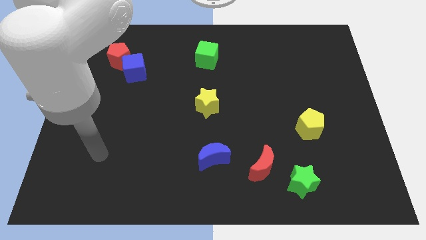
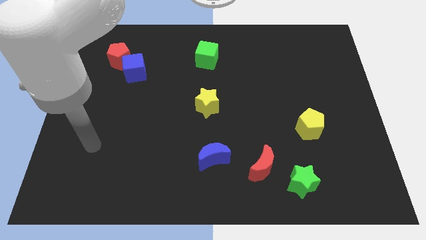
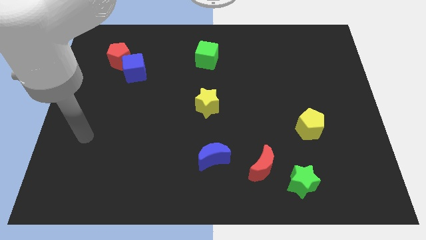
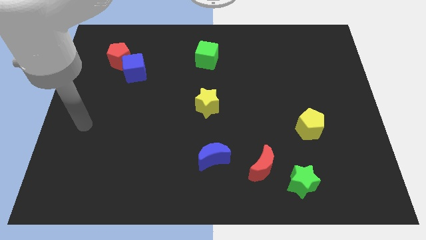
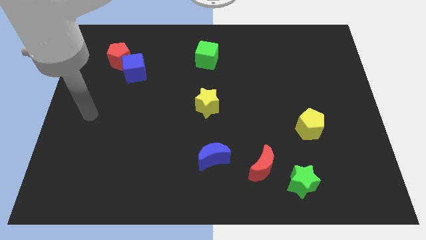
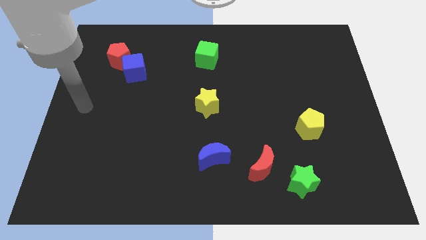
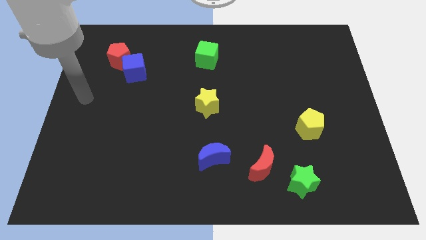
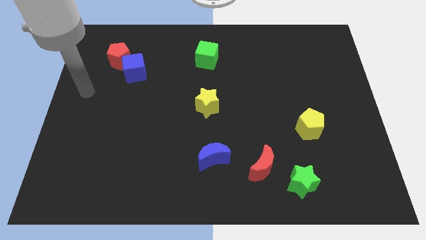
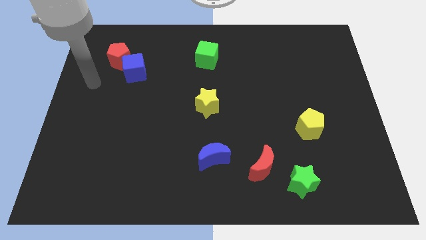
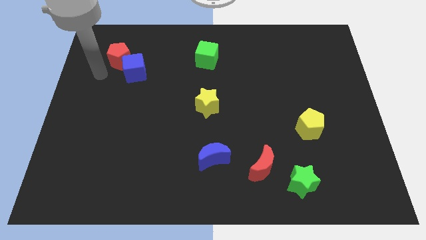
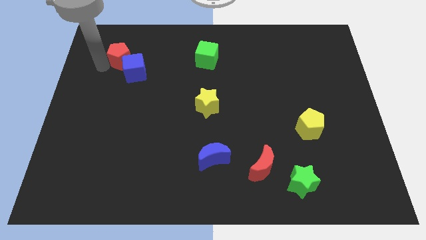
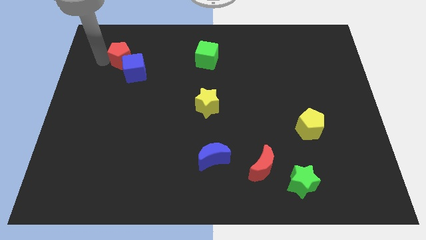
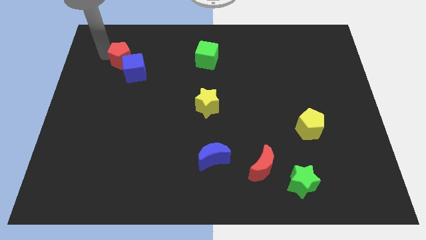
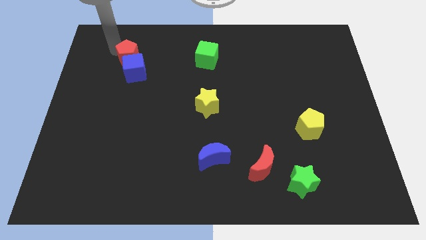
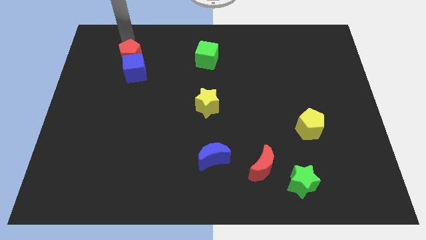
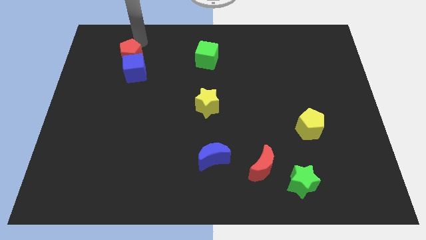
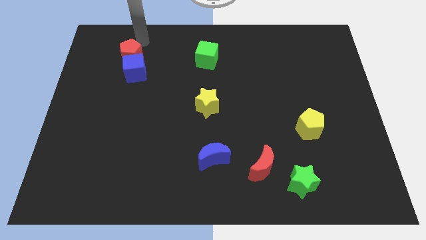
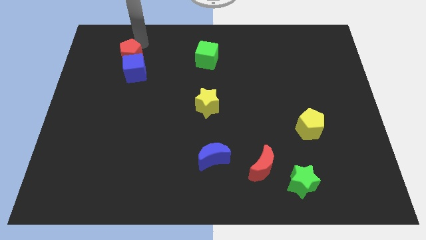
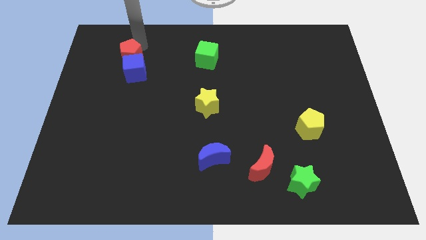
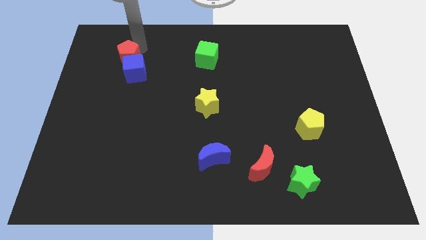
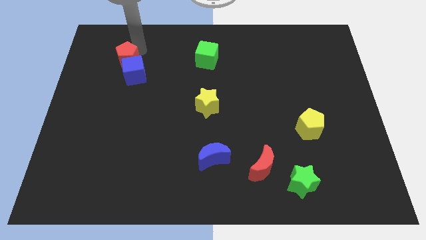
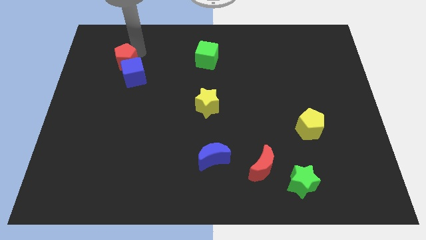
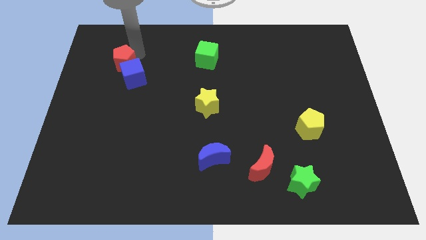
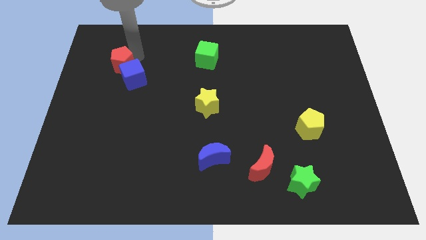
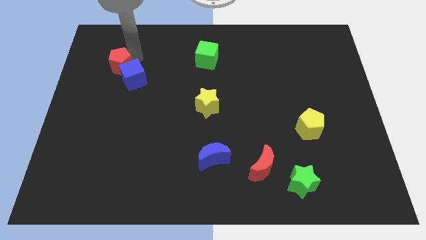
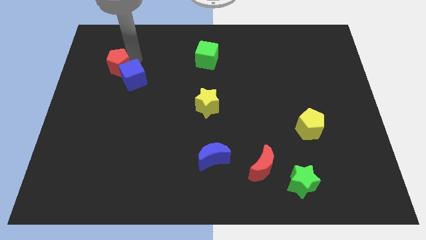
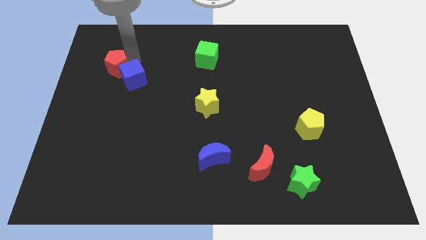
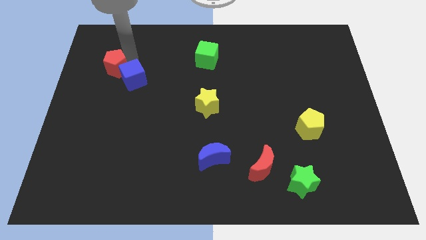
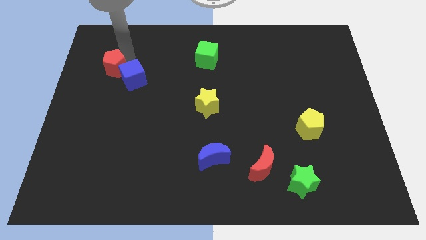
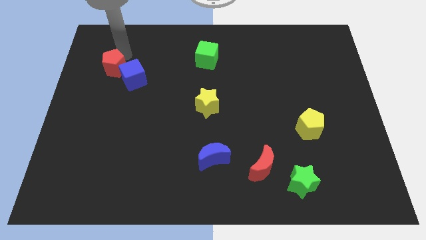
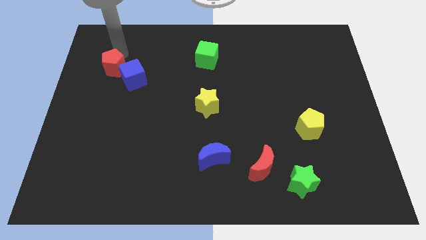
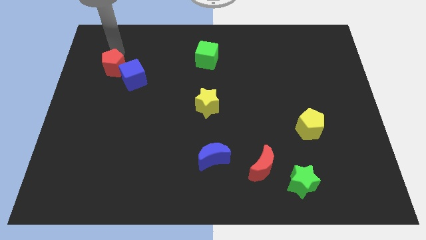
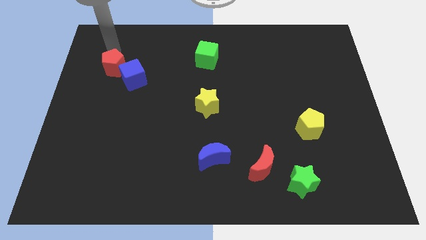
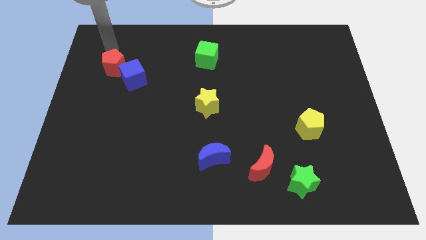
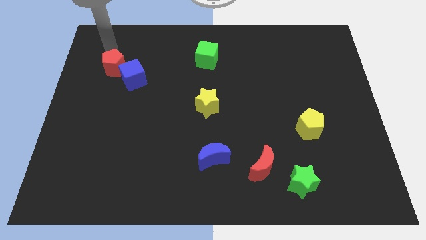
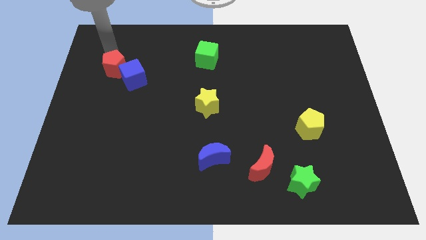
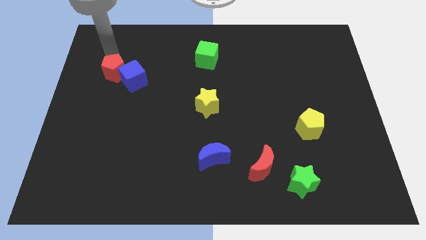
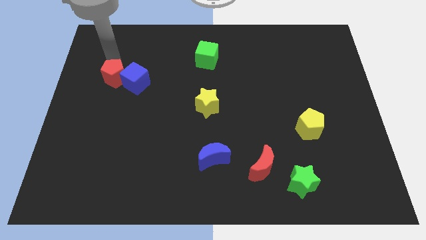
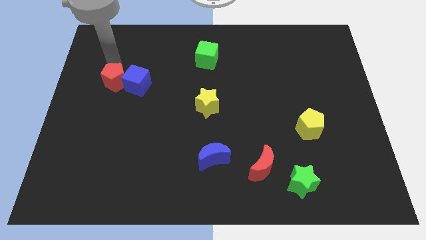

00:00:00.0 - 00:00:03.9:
slide the red pentagon a bit down

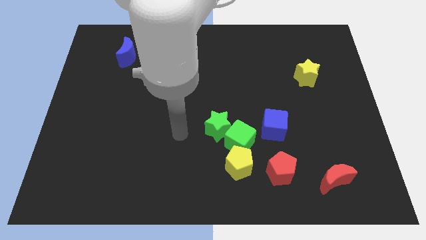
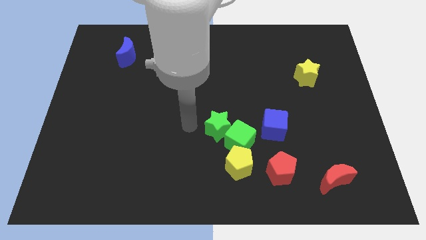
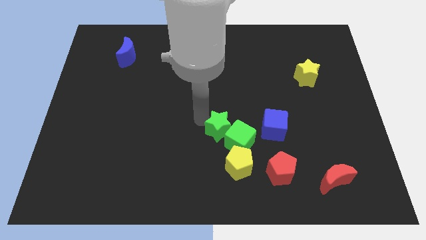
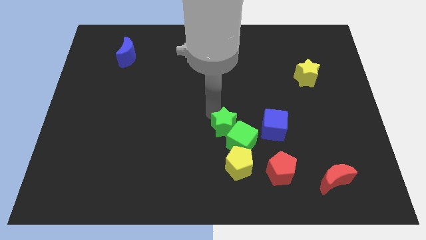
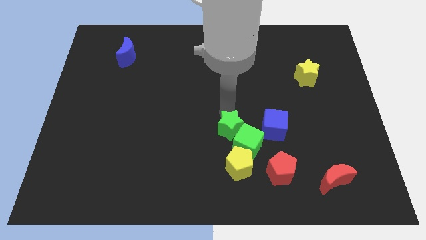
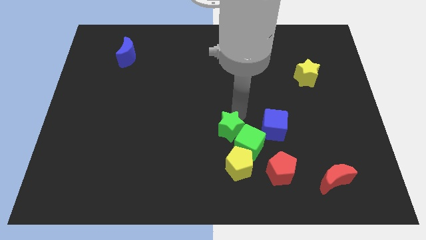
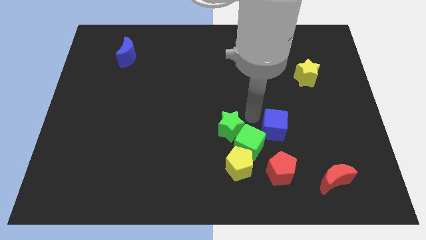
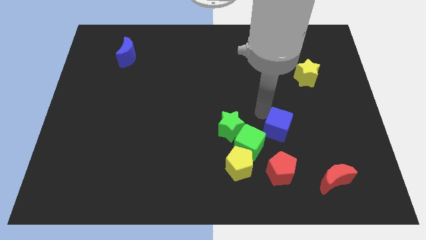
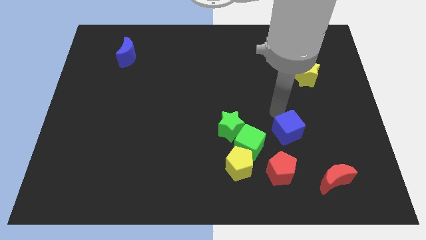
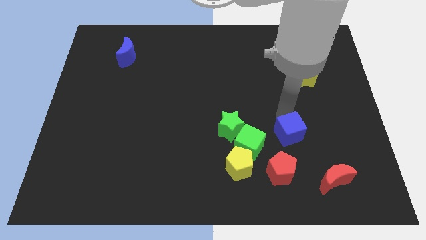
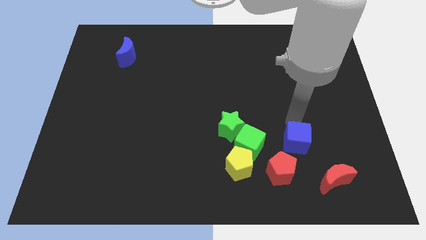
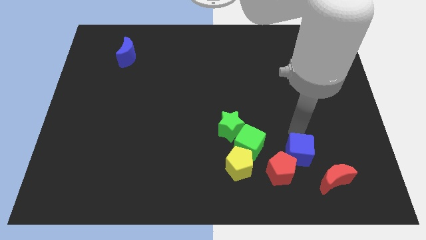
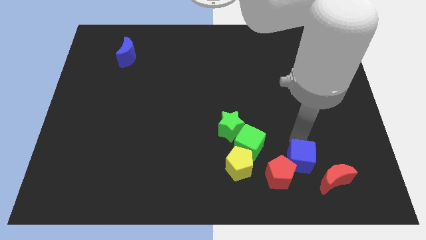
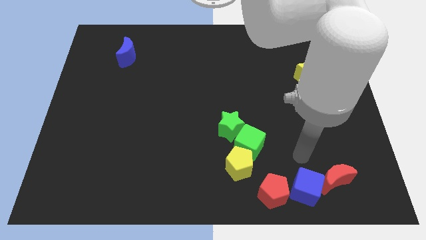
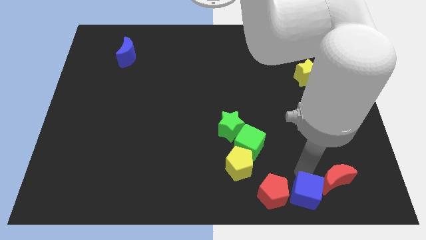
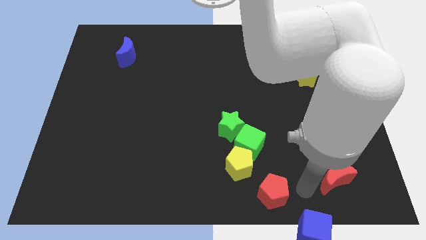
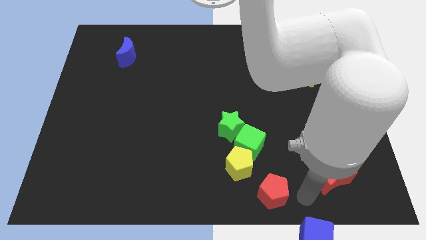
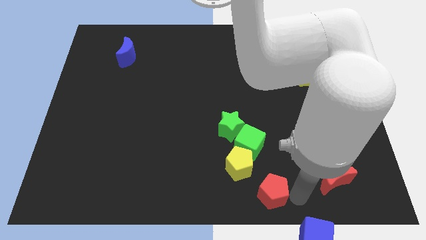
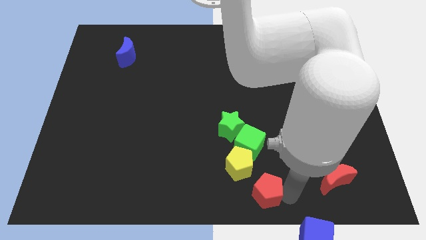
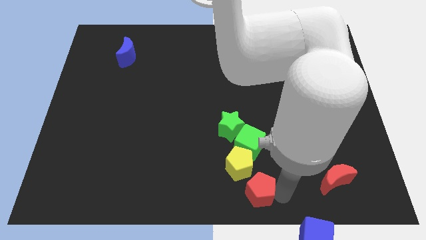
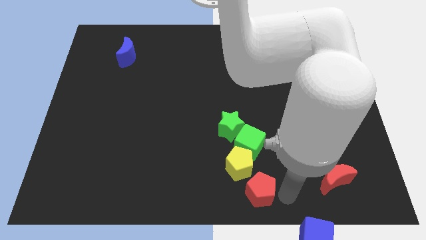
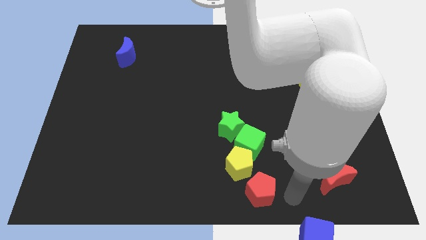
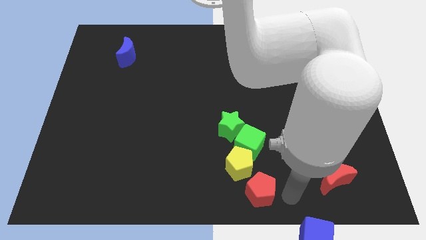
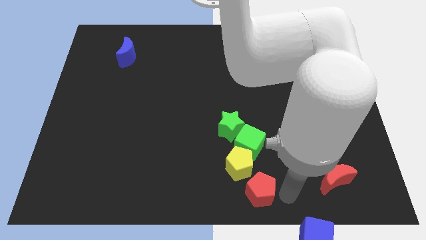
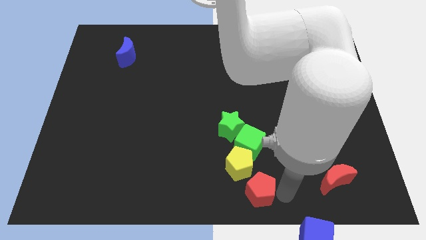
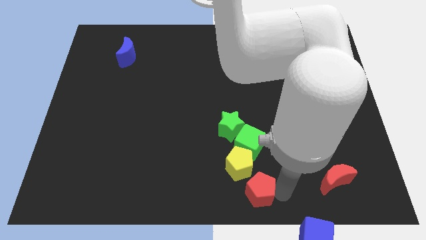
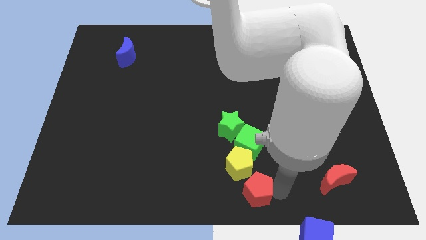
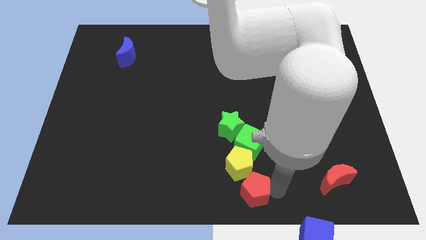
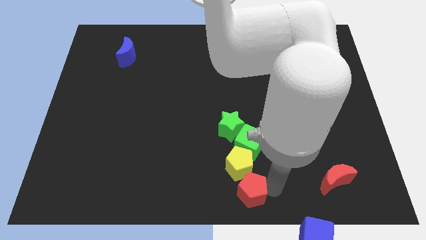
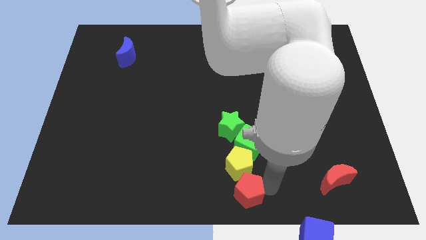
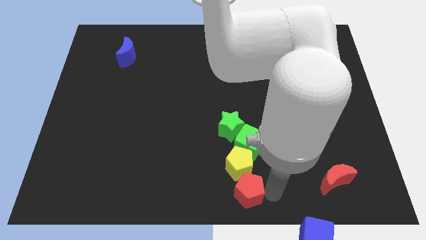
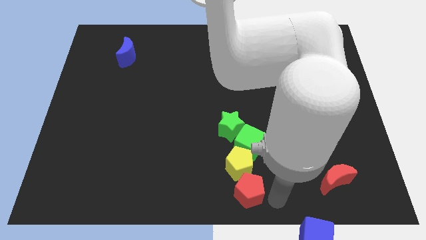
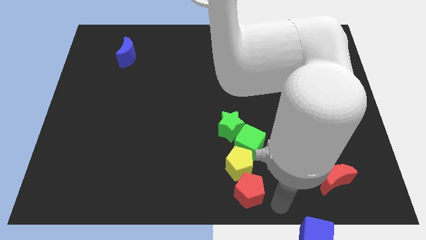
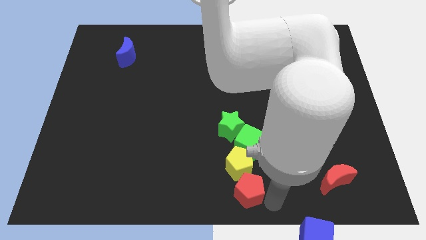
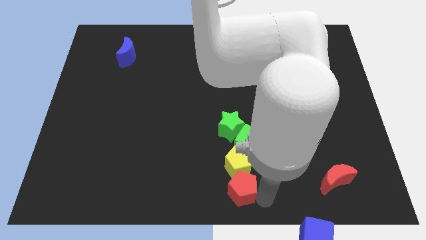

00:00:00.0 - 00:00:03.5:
slightly slide the red pentagon to the left

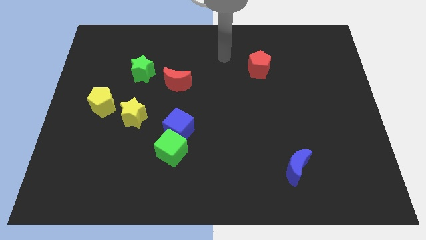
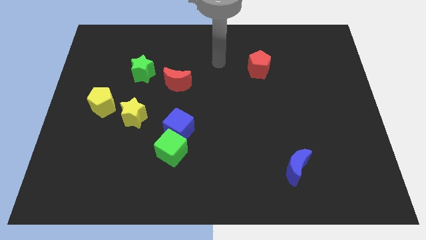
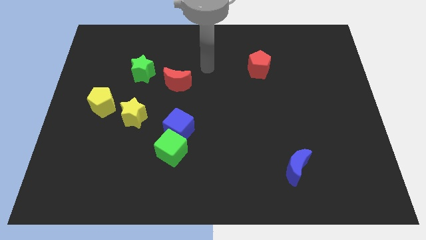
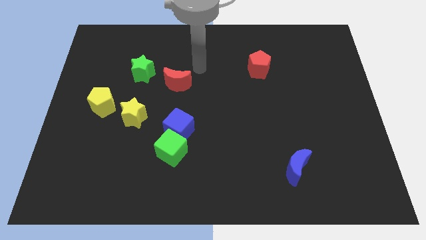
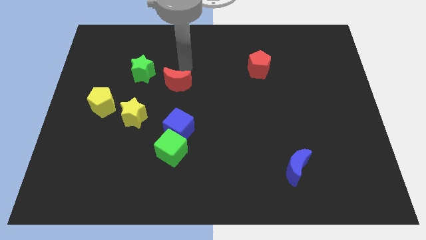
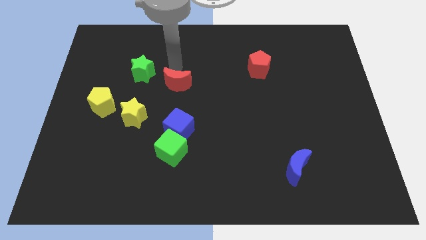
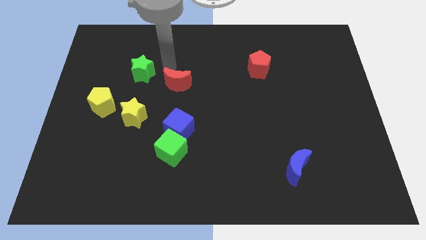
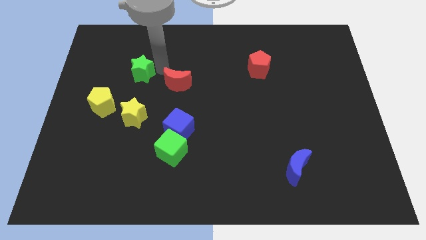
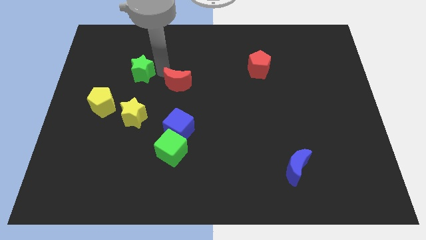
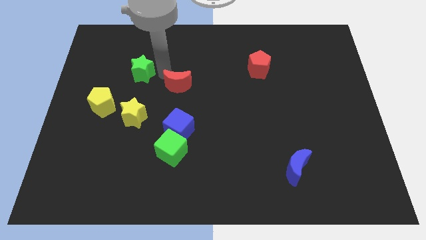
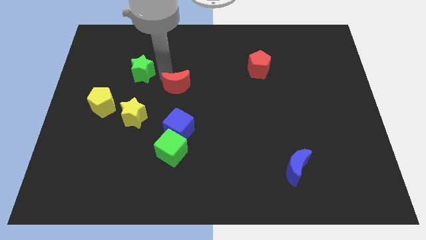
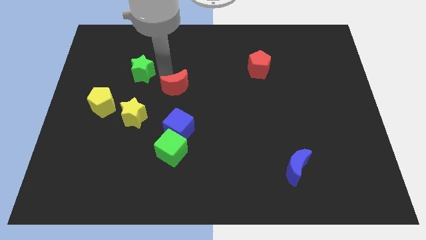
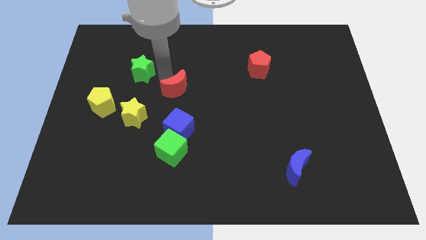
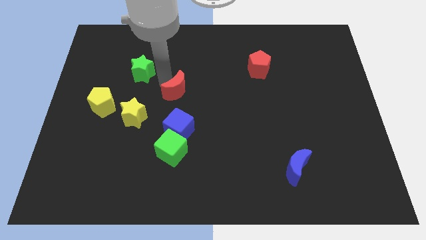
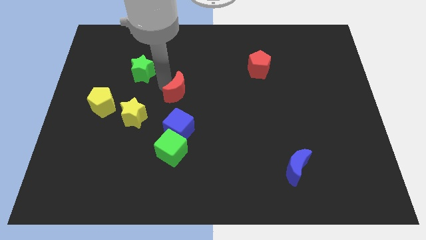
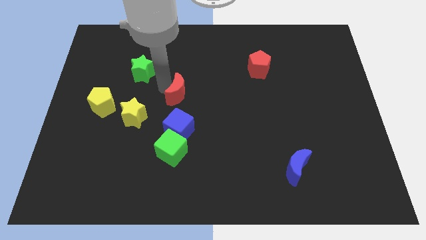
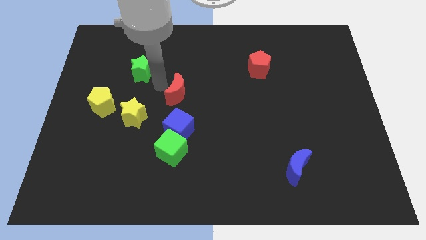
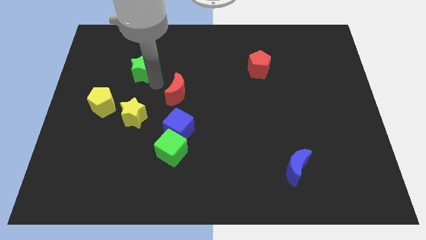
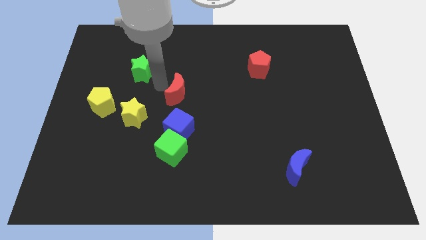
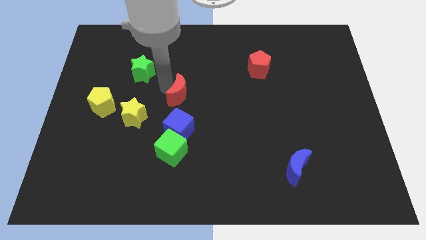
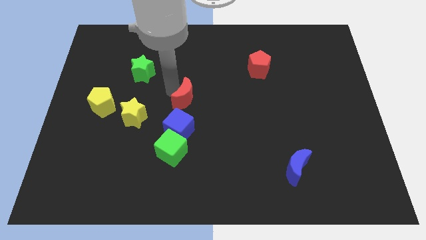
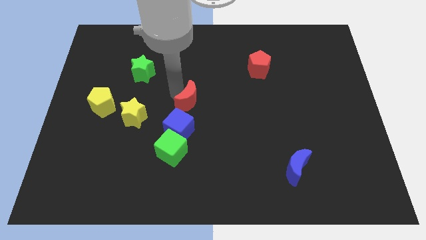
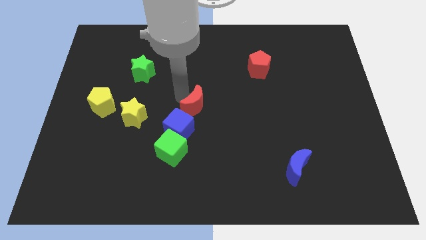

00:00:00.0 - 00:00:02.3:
slightly slide the red moon down and to the right
